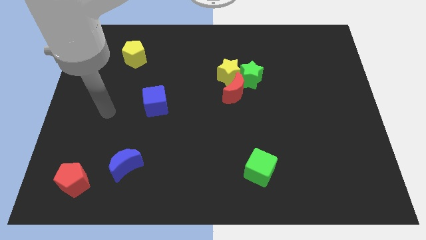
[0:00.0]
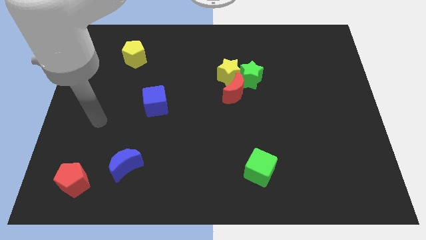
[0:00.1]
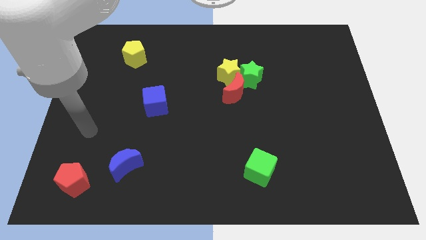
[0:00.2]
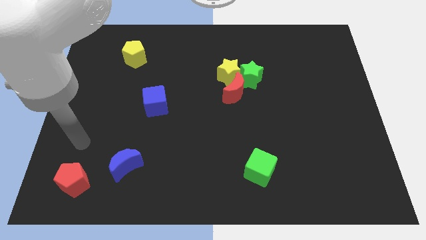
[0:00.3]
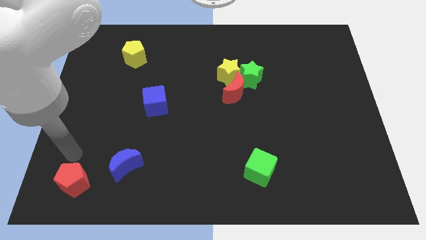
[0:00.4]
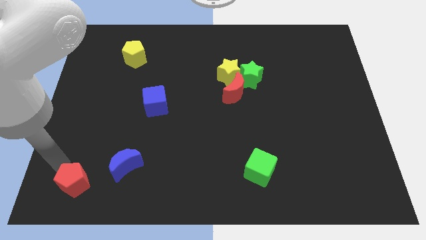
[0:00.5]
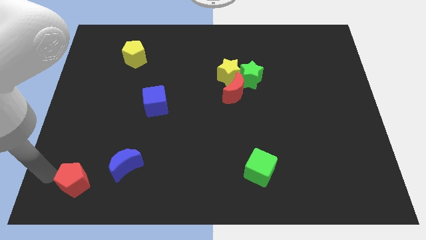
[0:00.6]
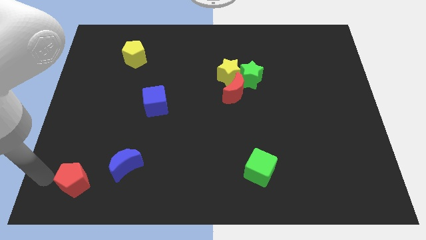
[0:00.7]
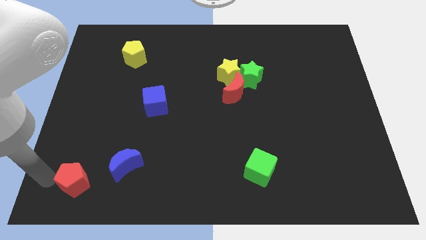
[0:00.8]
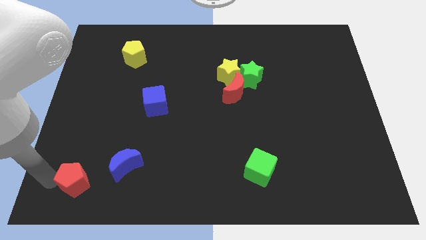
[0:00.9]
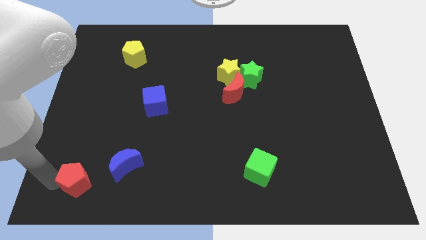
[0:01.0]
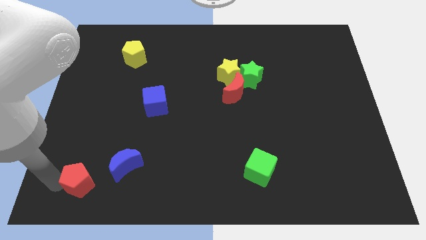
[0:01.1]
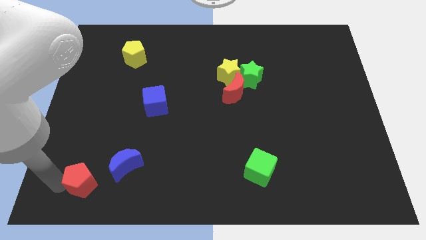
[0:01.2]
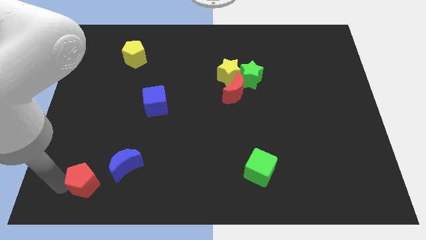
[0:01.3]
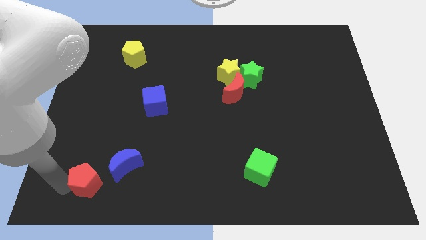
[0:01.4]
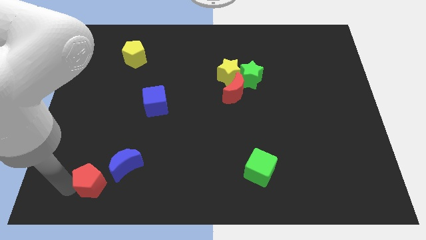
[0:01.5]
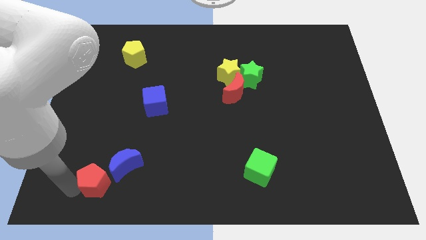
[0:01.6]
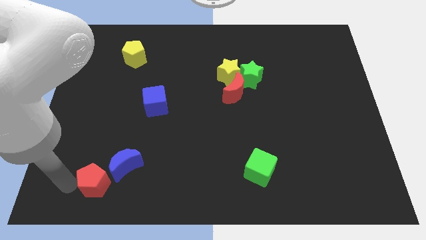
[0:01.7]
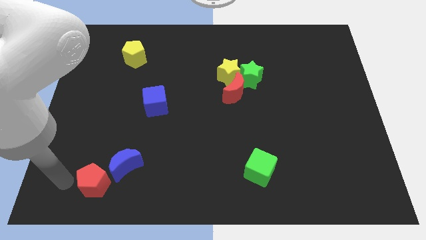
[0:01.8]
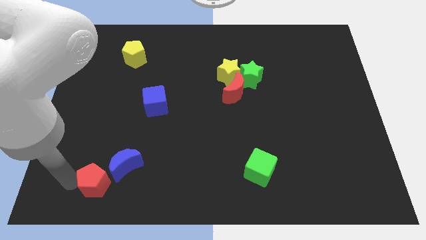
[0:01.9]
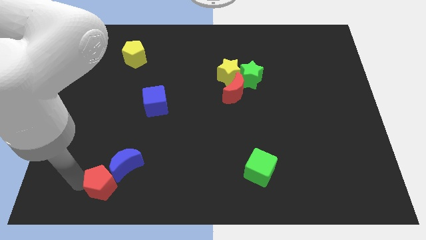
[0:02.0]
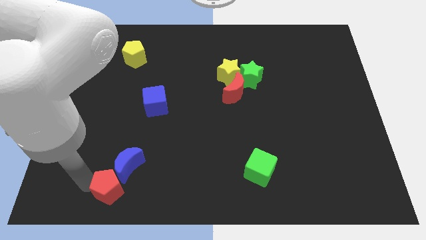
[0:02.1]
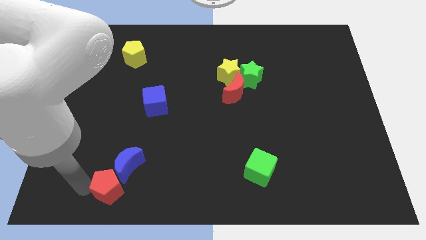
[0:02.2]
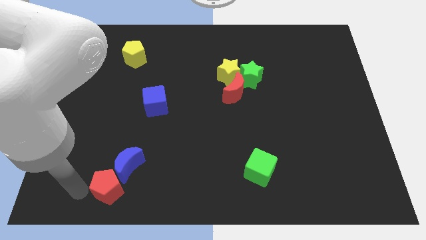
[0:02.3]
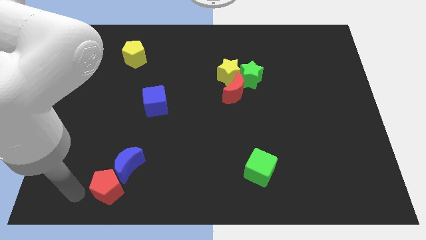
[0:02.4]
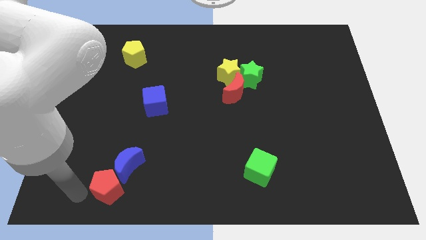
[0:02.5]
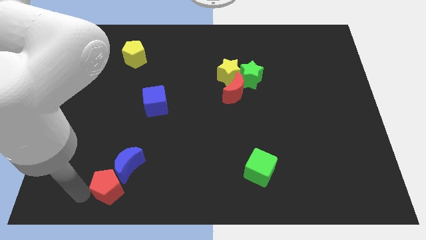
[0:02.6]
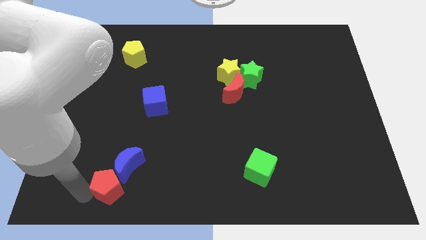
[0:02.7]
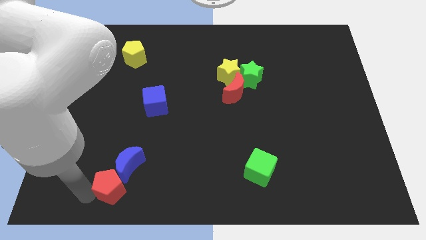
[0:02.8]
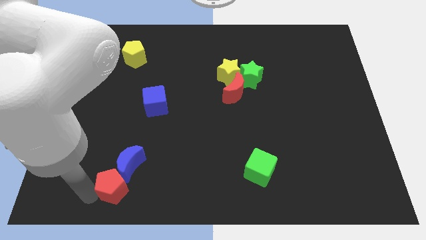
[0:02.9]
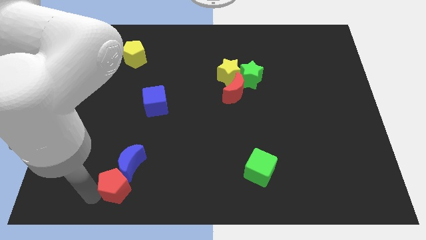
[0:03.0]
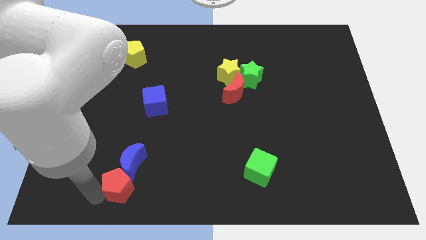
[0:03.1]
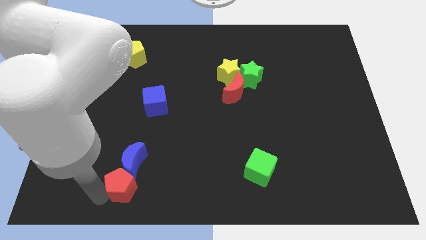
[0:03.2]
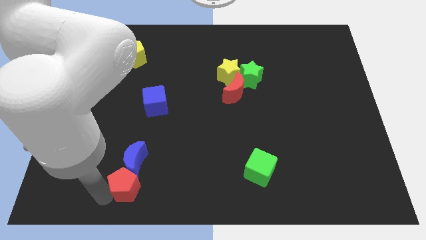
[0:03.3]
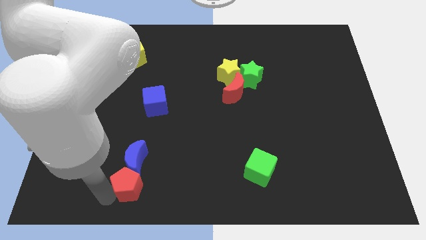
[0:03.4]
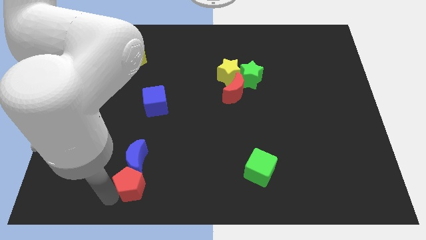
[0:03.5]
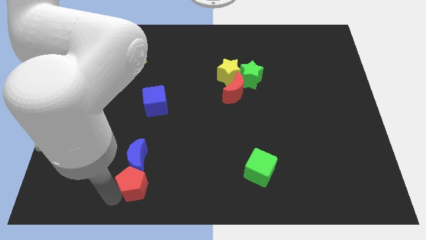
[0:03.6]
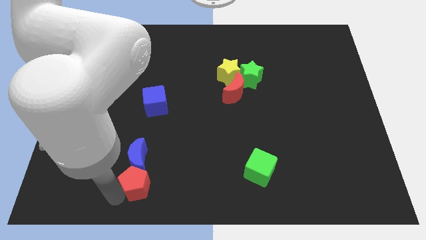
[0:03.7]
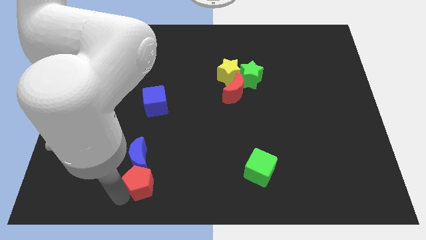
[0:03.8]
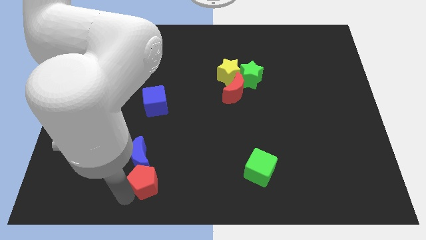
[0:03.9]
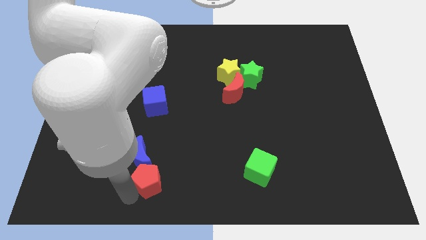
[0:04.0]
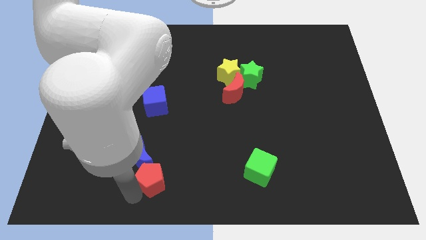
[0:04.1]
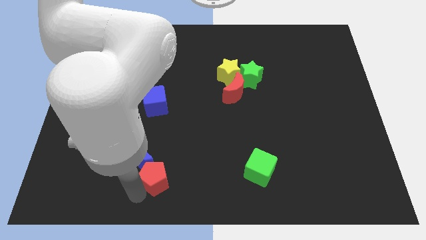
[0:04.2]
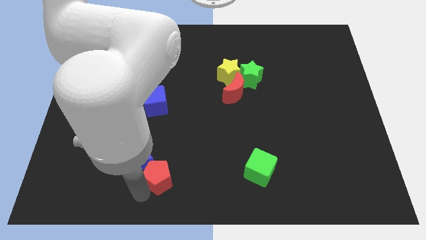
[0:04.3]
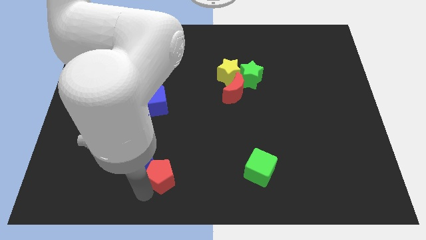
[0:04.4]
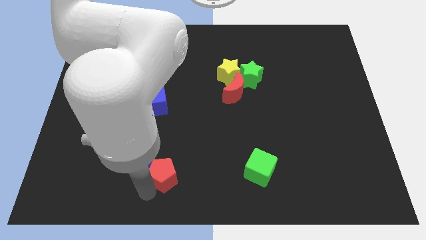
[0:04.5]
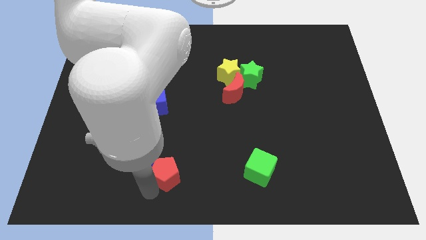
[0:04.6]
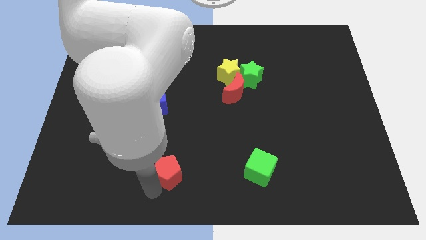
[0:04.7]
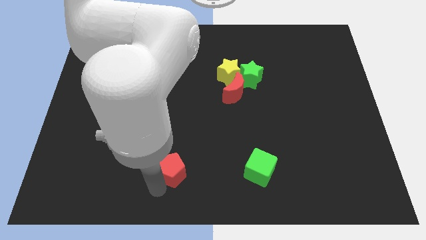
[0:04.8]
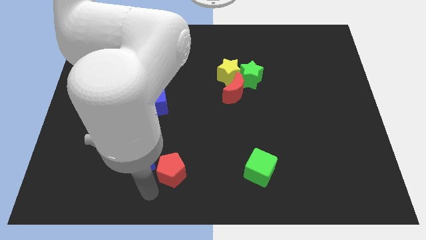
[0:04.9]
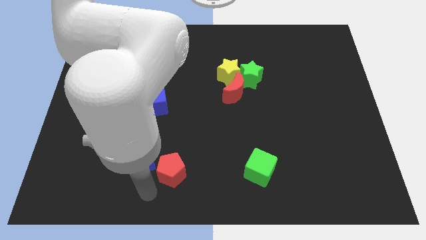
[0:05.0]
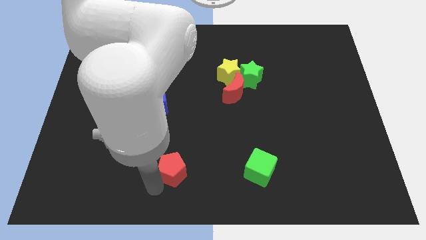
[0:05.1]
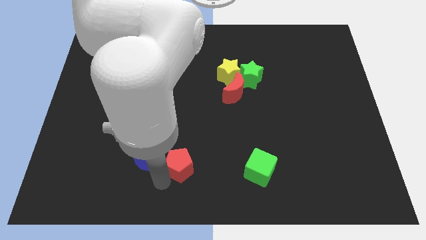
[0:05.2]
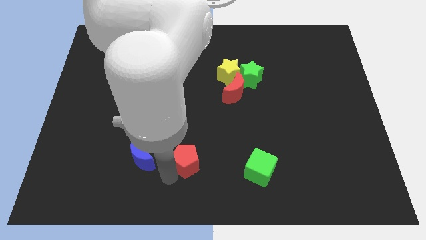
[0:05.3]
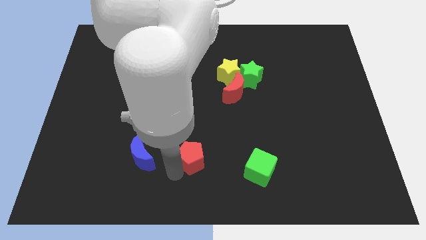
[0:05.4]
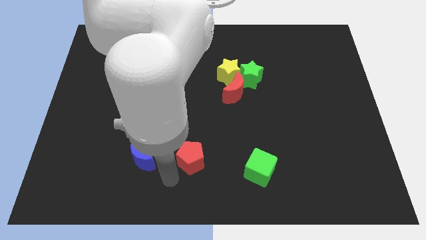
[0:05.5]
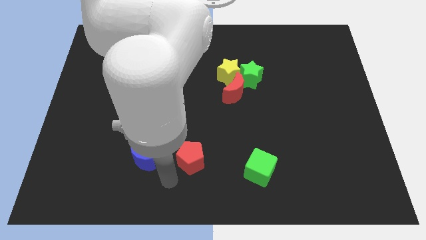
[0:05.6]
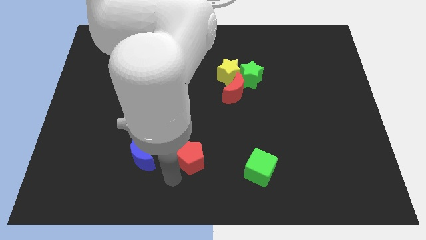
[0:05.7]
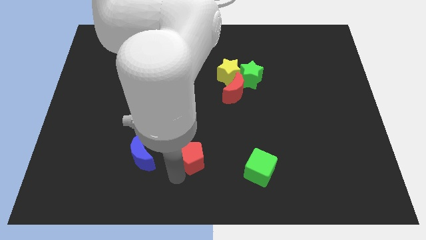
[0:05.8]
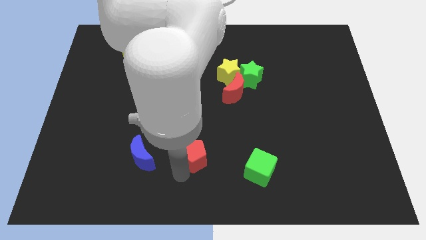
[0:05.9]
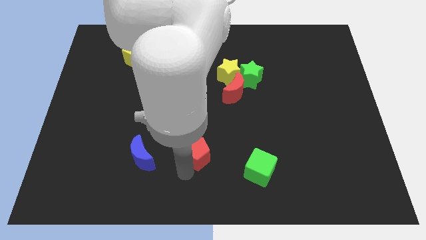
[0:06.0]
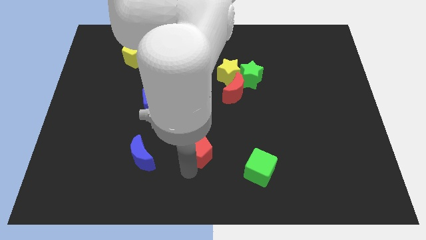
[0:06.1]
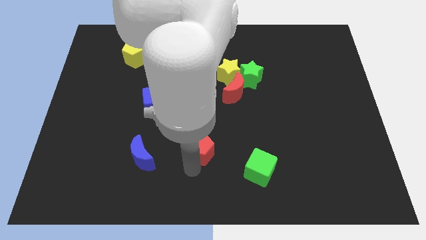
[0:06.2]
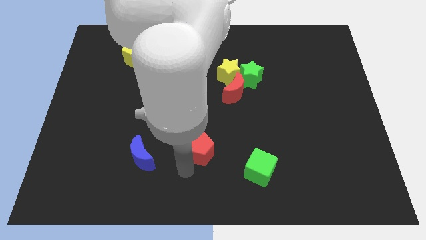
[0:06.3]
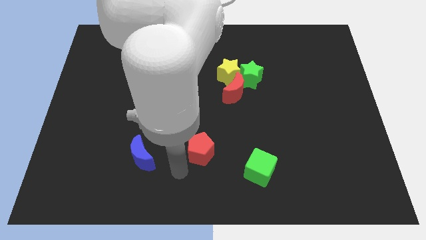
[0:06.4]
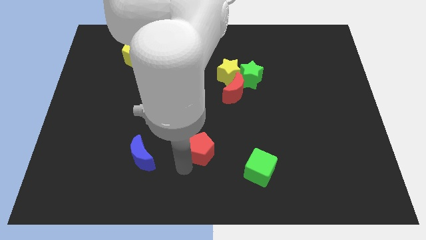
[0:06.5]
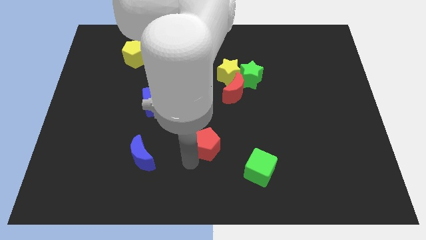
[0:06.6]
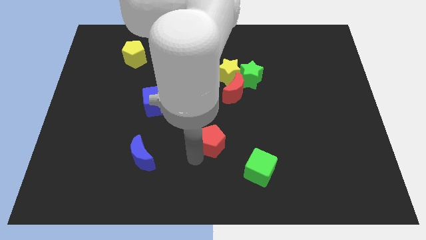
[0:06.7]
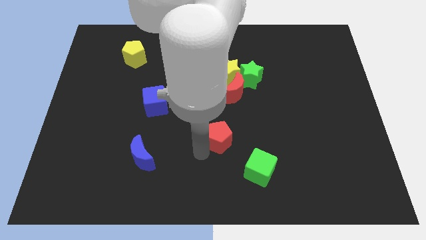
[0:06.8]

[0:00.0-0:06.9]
slide the red pentagon to the bottom of the red moon

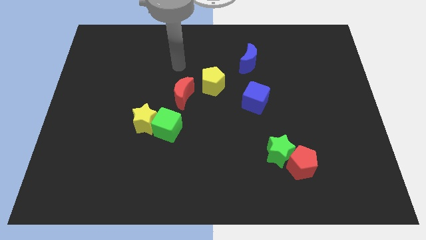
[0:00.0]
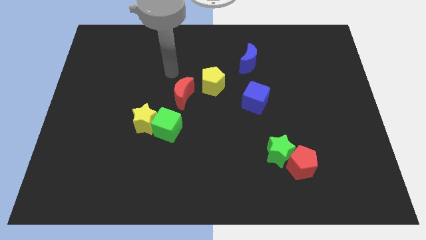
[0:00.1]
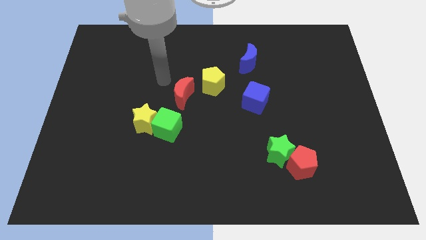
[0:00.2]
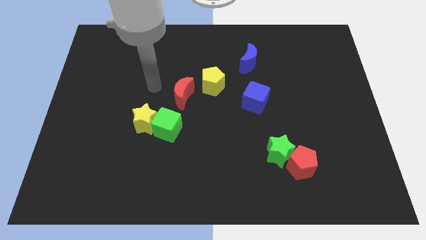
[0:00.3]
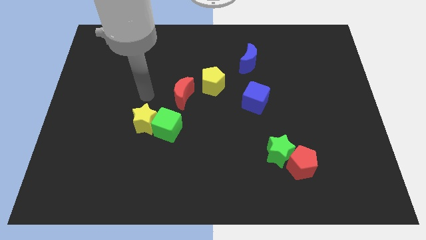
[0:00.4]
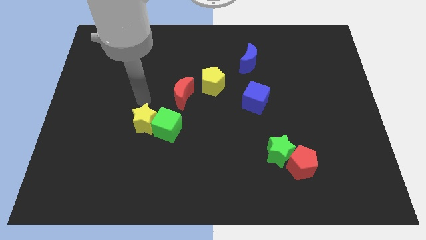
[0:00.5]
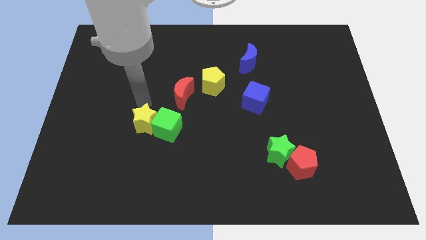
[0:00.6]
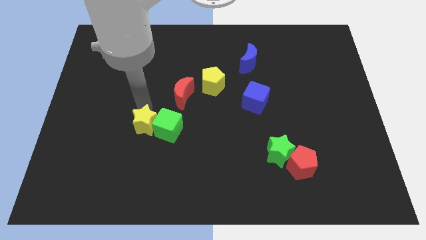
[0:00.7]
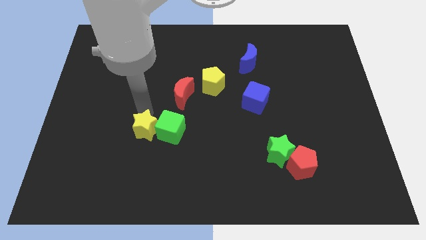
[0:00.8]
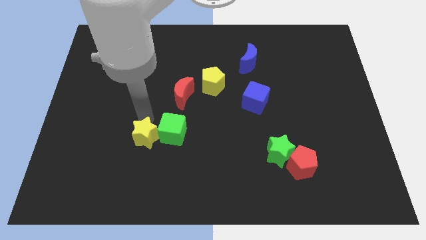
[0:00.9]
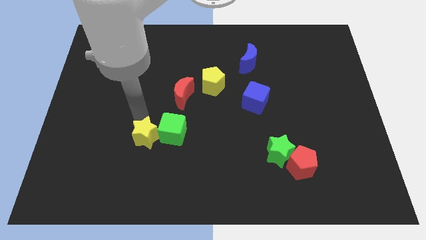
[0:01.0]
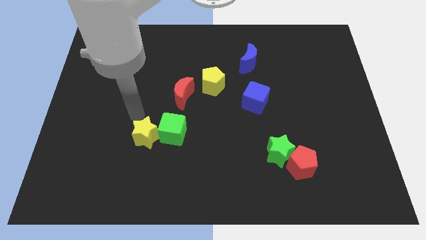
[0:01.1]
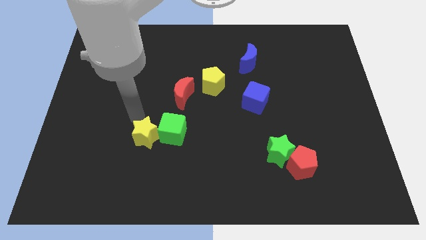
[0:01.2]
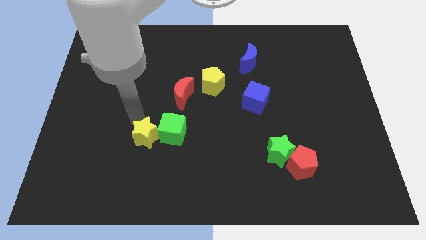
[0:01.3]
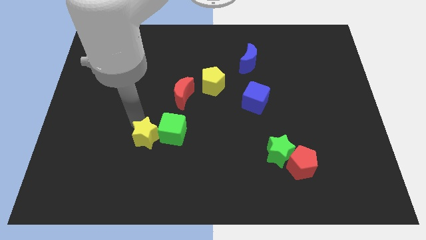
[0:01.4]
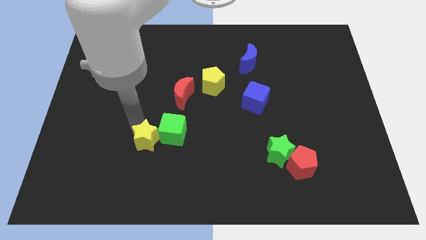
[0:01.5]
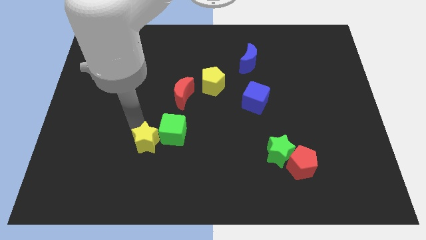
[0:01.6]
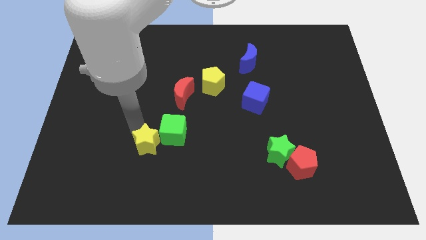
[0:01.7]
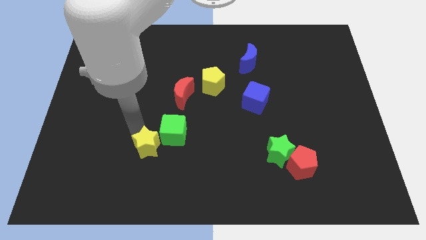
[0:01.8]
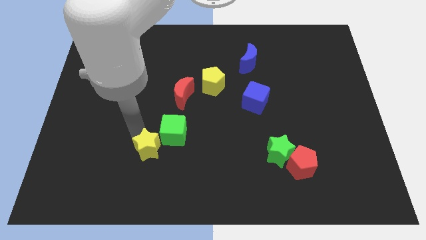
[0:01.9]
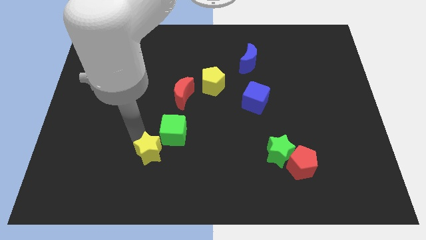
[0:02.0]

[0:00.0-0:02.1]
slide the yellow star to the bottom side of the green cube
